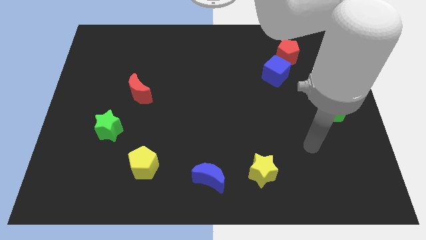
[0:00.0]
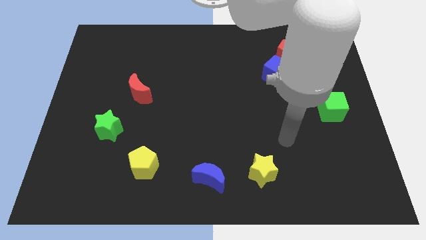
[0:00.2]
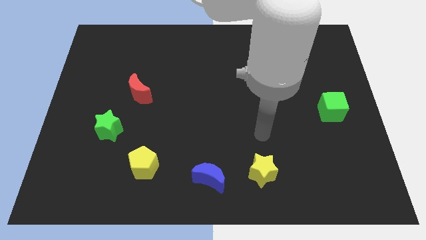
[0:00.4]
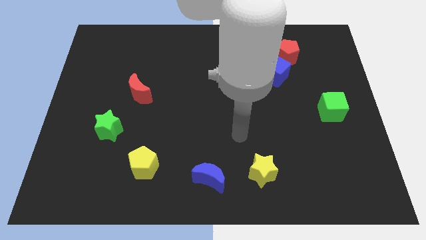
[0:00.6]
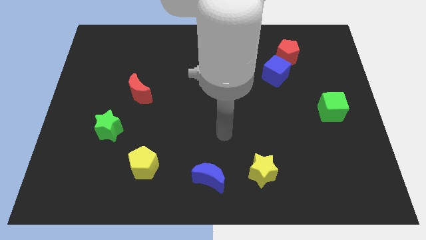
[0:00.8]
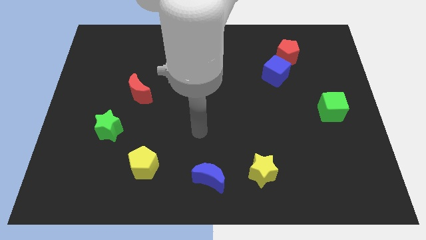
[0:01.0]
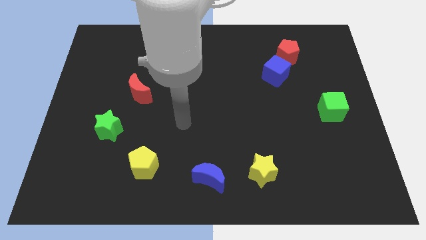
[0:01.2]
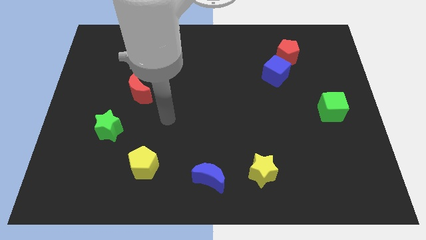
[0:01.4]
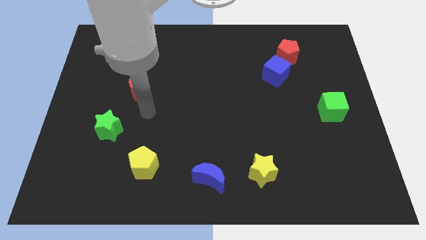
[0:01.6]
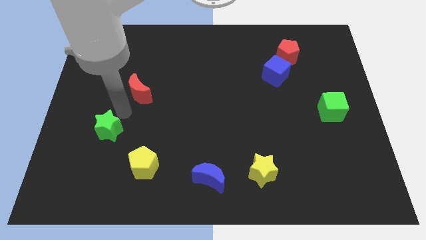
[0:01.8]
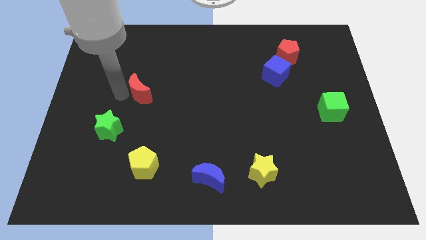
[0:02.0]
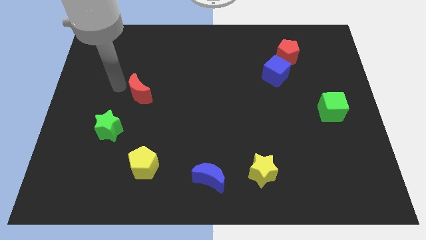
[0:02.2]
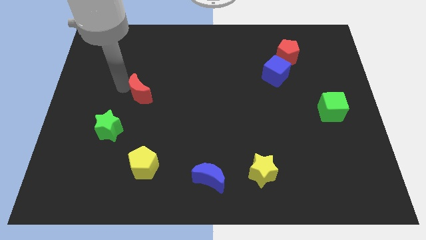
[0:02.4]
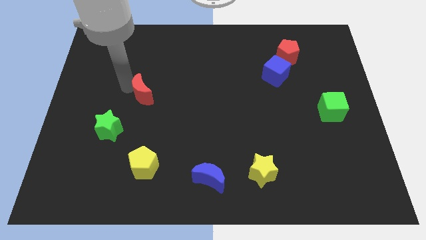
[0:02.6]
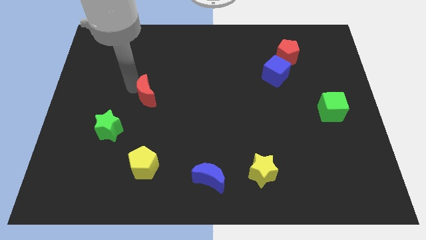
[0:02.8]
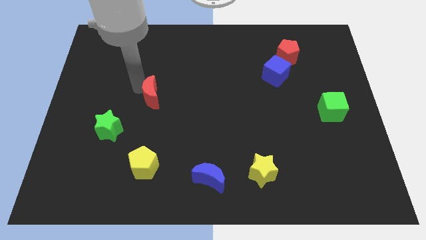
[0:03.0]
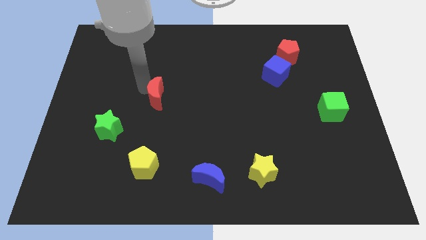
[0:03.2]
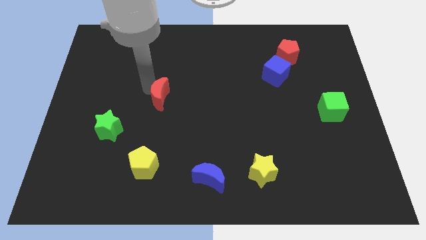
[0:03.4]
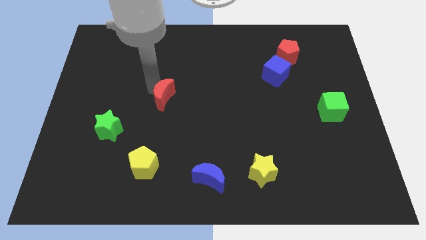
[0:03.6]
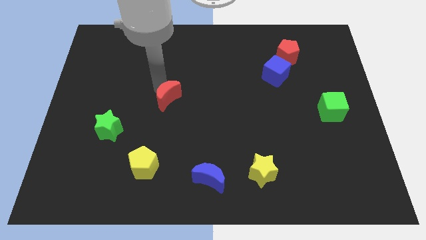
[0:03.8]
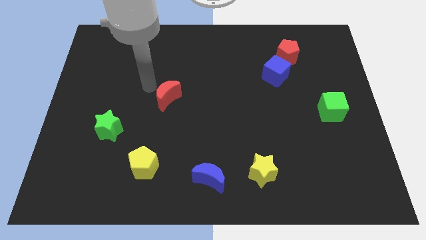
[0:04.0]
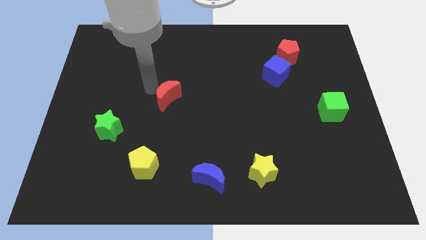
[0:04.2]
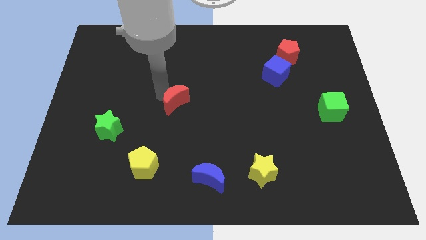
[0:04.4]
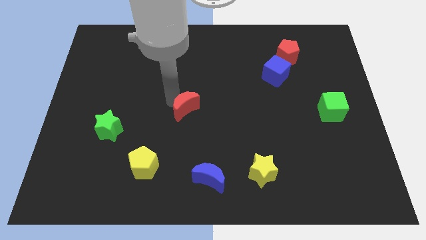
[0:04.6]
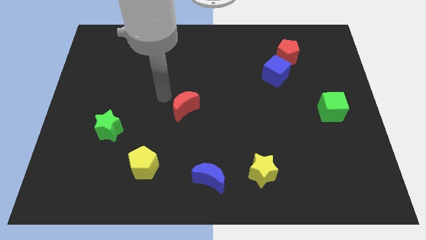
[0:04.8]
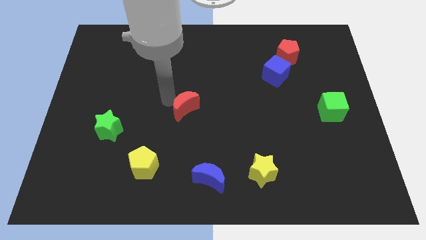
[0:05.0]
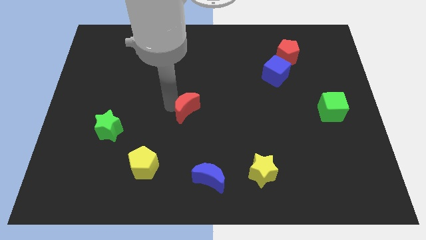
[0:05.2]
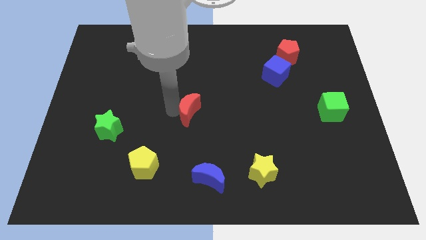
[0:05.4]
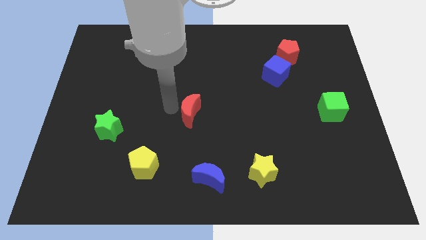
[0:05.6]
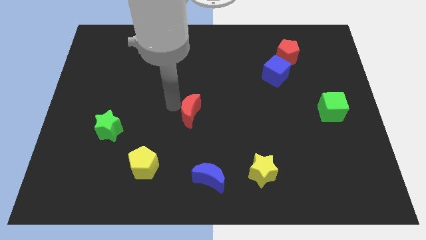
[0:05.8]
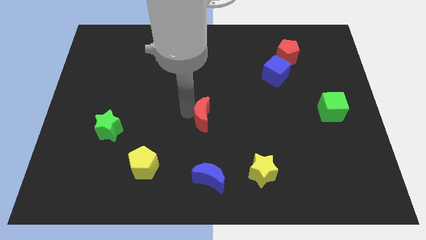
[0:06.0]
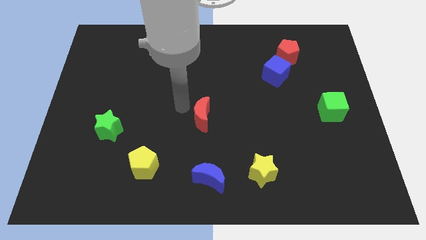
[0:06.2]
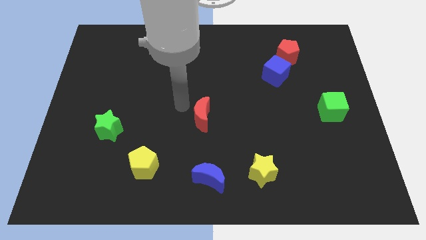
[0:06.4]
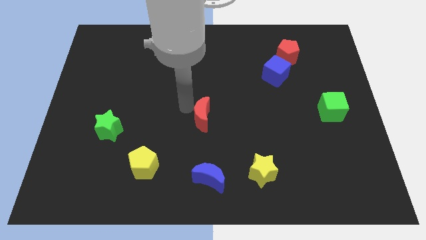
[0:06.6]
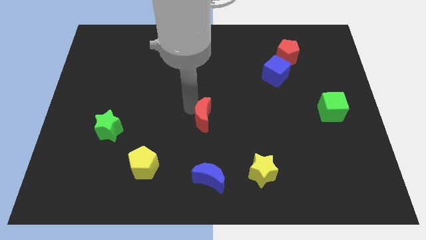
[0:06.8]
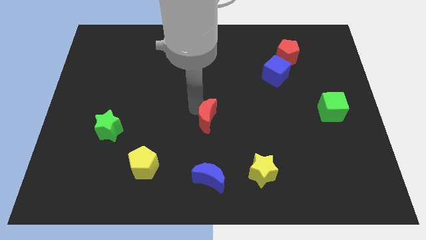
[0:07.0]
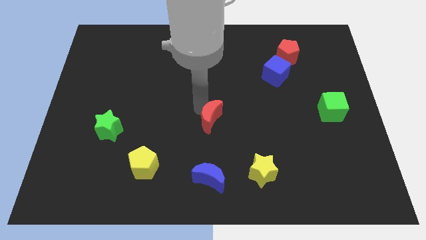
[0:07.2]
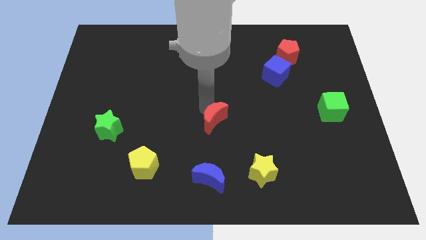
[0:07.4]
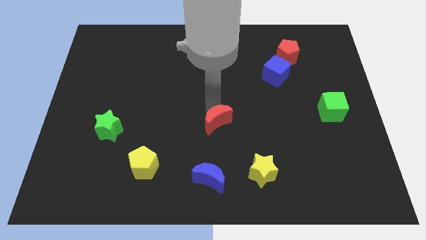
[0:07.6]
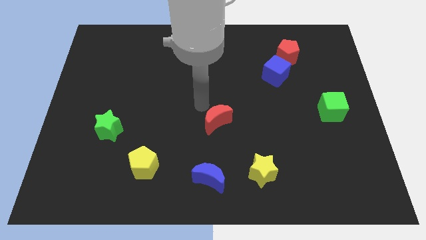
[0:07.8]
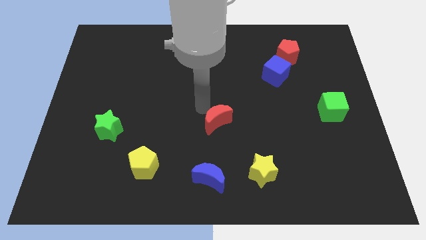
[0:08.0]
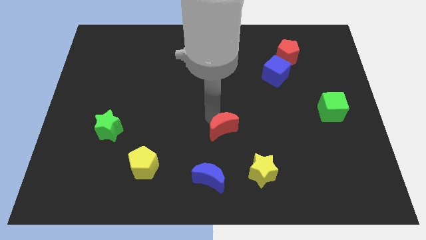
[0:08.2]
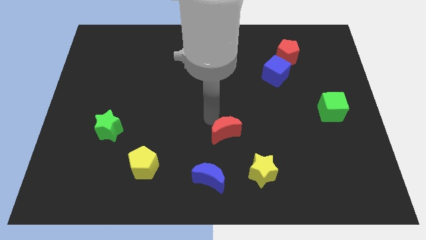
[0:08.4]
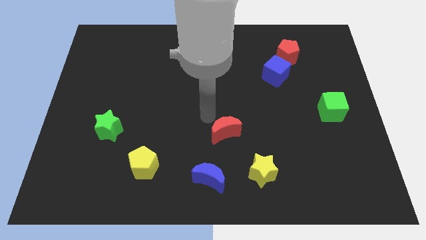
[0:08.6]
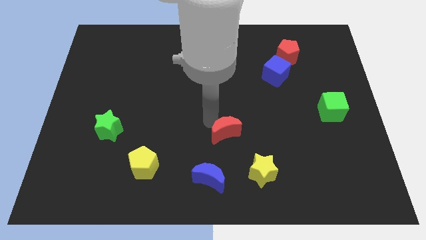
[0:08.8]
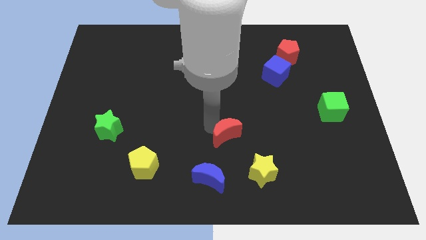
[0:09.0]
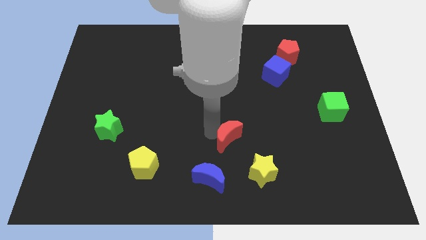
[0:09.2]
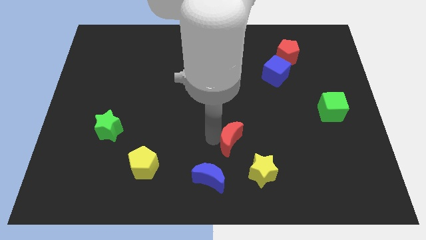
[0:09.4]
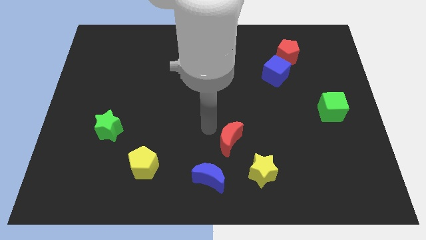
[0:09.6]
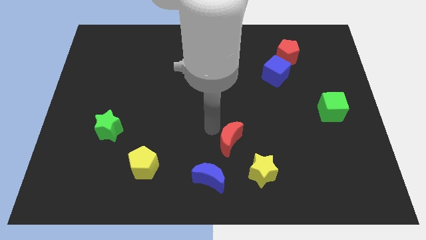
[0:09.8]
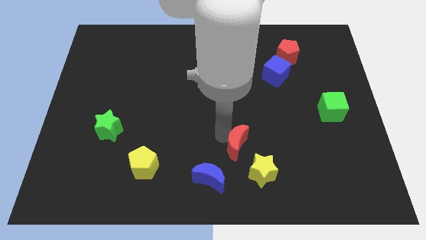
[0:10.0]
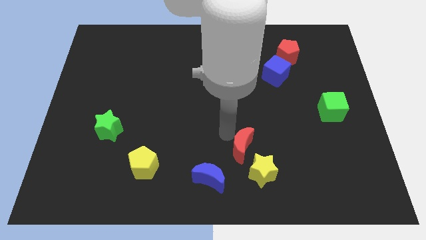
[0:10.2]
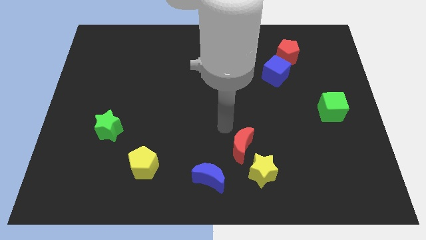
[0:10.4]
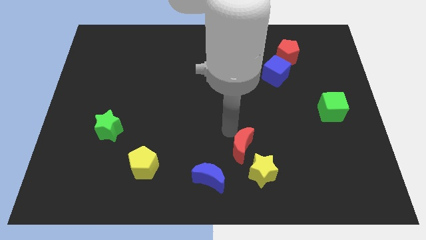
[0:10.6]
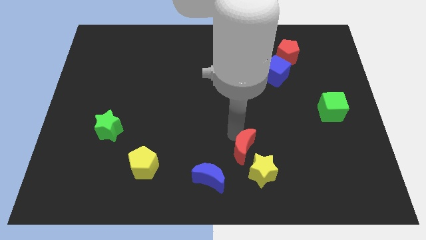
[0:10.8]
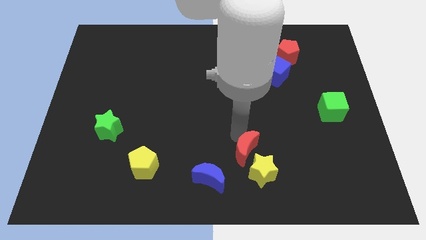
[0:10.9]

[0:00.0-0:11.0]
put the red moon close to the yellow star

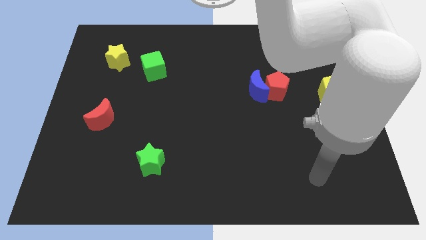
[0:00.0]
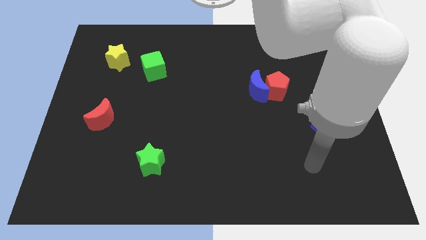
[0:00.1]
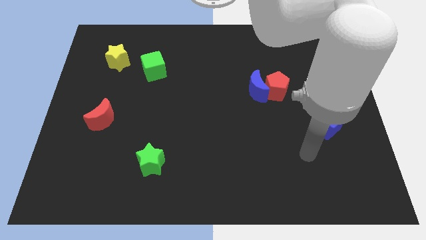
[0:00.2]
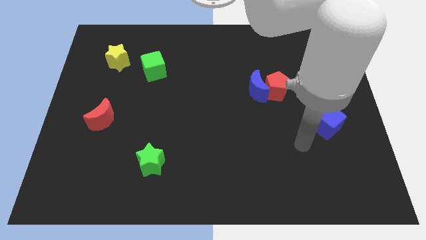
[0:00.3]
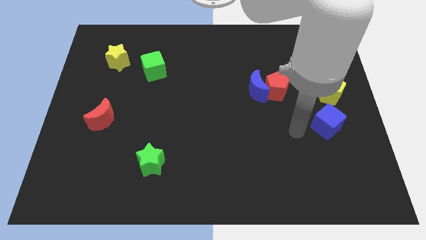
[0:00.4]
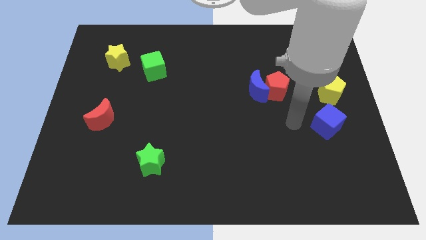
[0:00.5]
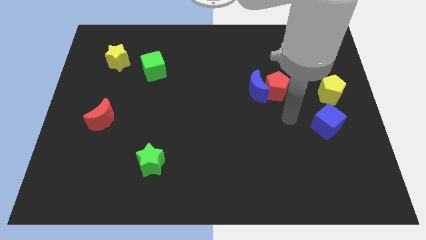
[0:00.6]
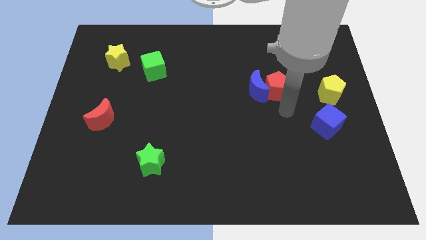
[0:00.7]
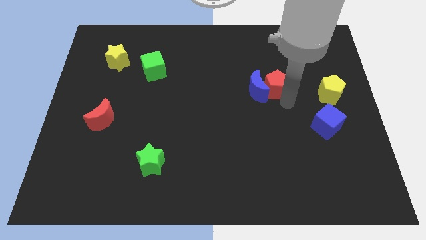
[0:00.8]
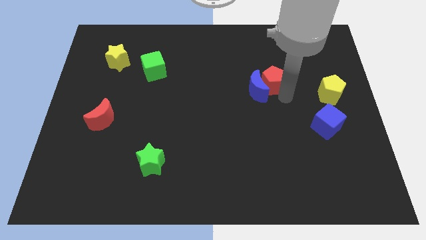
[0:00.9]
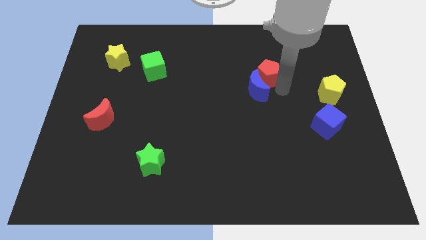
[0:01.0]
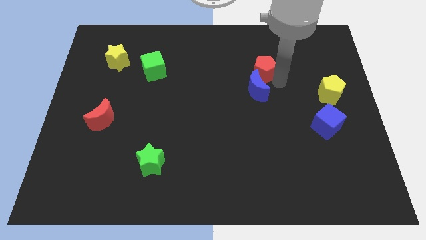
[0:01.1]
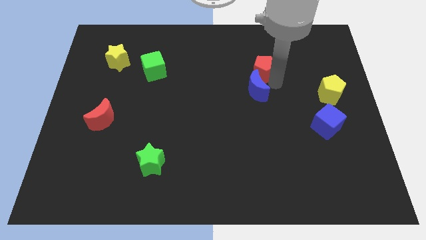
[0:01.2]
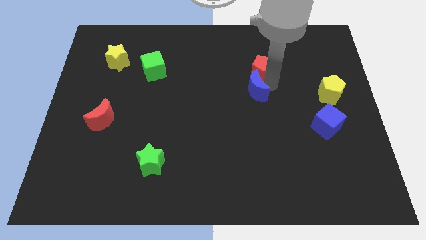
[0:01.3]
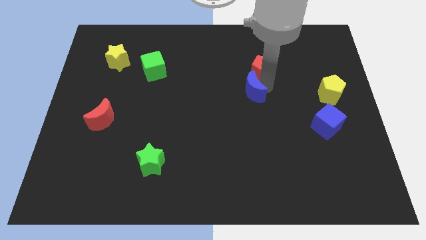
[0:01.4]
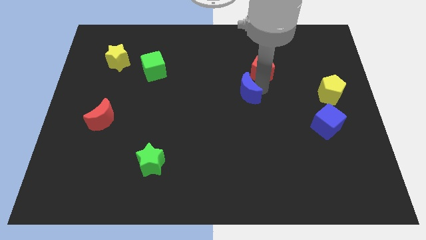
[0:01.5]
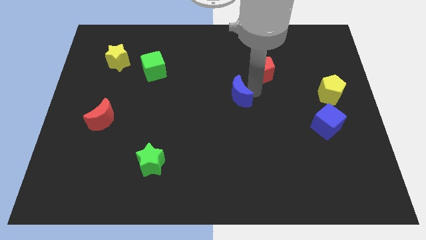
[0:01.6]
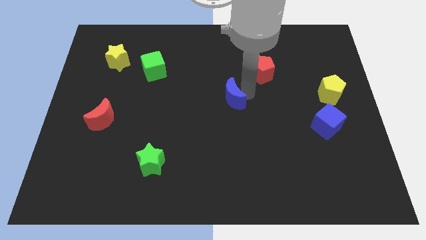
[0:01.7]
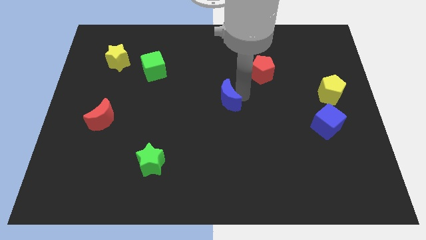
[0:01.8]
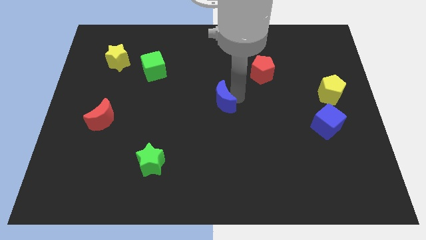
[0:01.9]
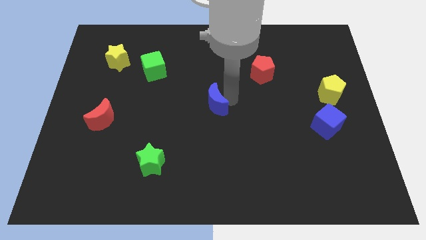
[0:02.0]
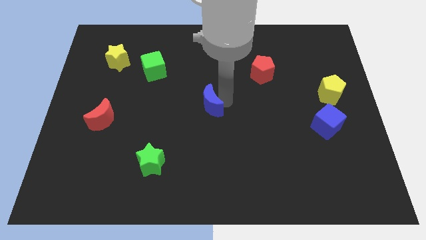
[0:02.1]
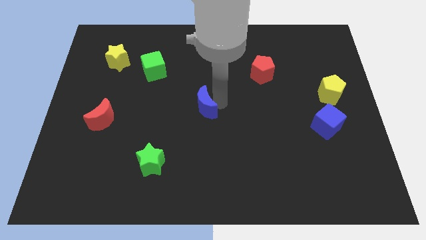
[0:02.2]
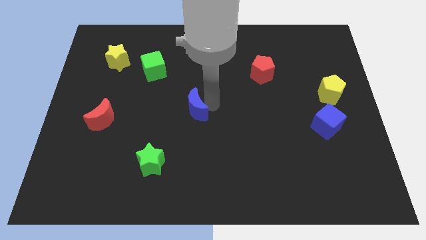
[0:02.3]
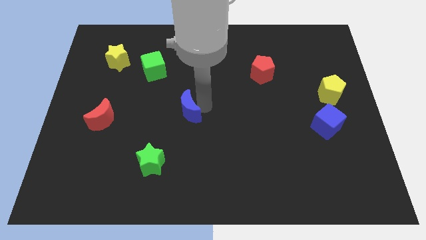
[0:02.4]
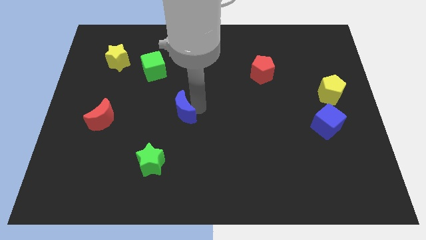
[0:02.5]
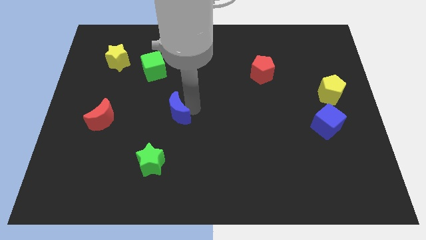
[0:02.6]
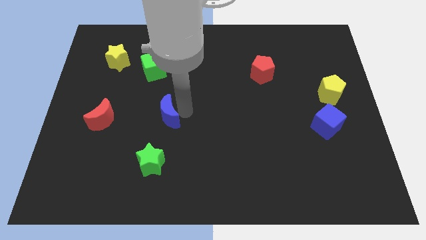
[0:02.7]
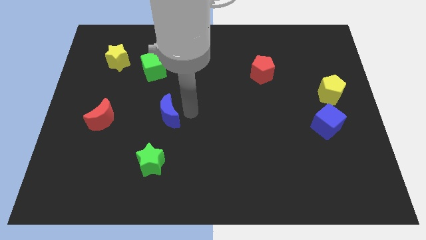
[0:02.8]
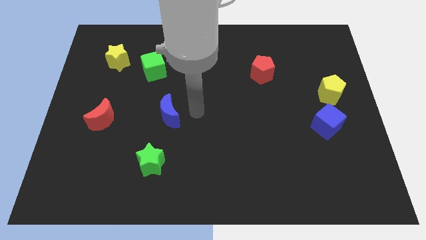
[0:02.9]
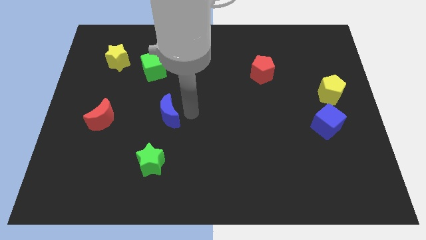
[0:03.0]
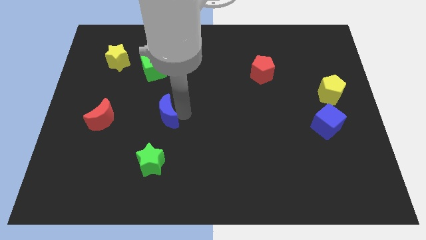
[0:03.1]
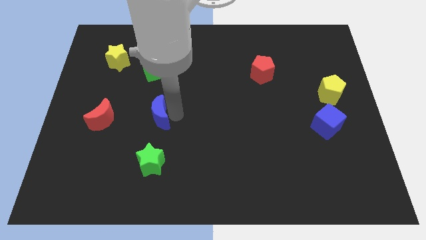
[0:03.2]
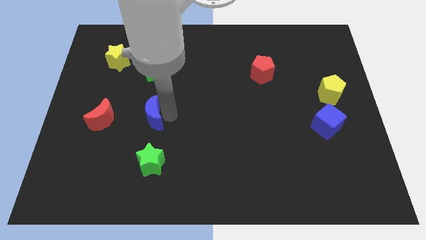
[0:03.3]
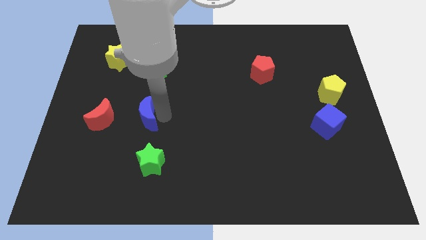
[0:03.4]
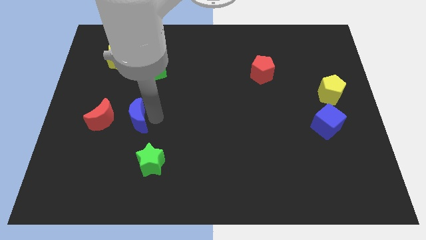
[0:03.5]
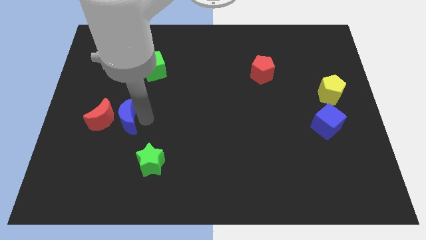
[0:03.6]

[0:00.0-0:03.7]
slide the blue moon close to the red moon
